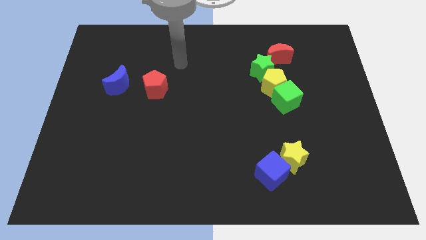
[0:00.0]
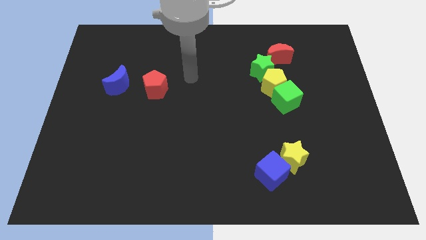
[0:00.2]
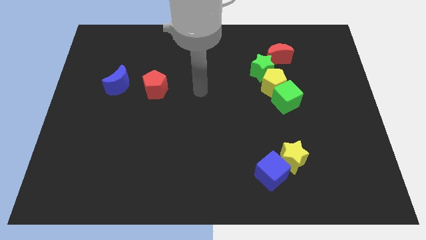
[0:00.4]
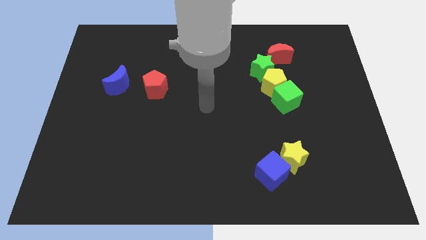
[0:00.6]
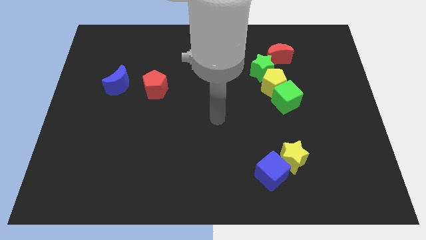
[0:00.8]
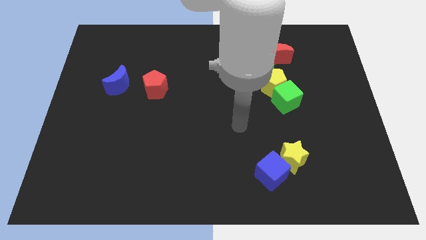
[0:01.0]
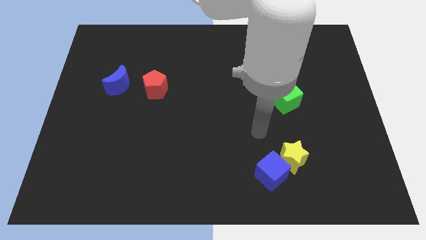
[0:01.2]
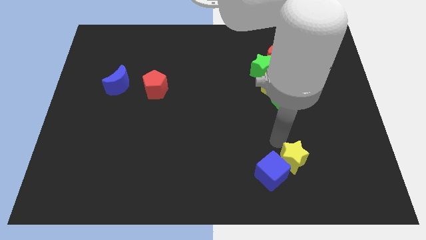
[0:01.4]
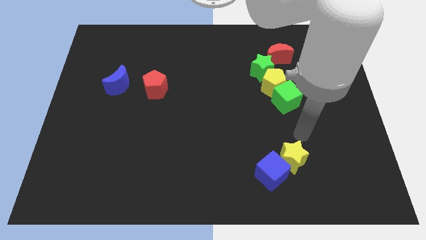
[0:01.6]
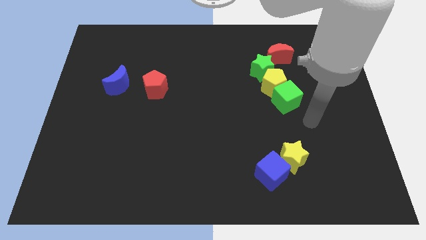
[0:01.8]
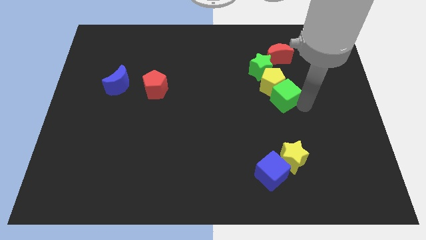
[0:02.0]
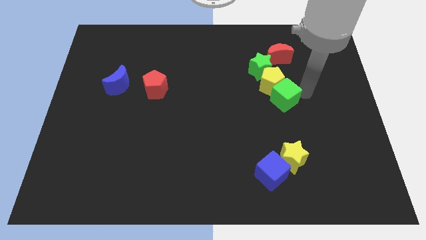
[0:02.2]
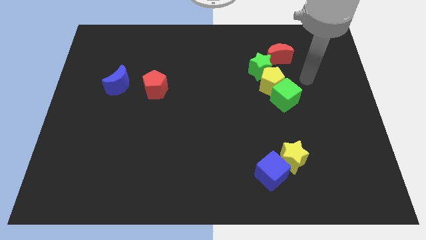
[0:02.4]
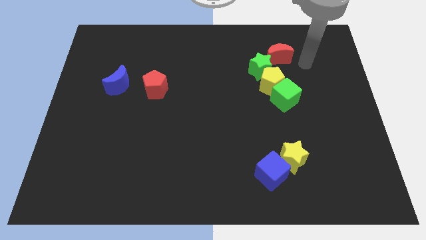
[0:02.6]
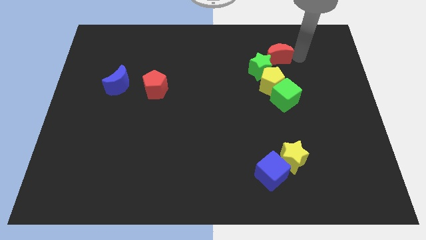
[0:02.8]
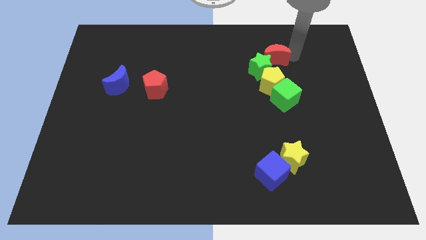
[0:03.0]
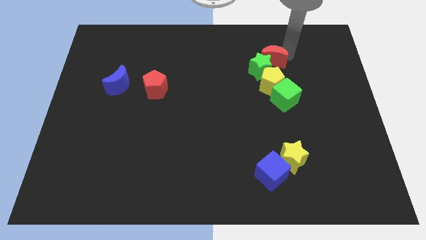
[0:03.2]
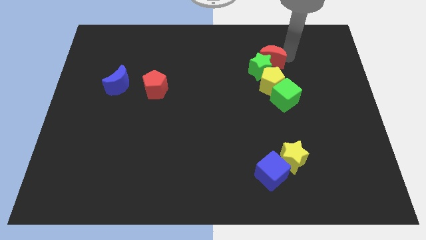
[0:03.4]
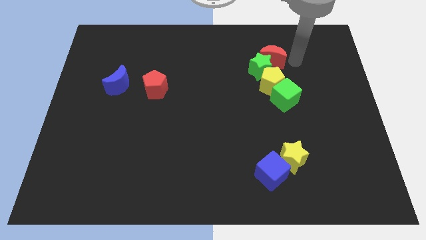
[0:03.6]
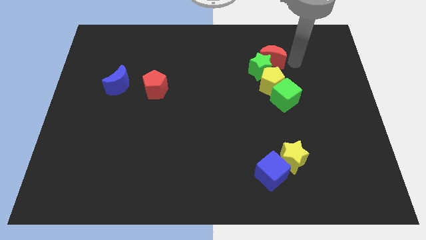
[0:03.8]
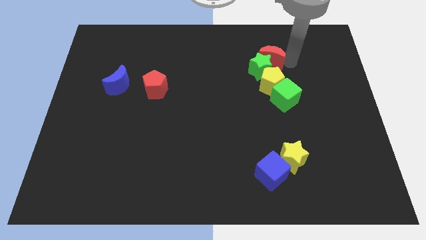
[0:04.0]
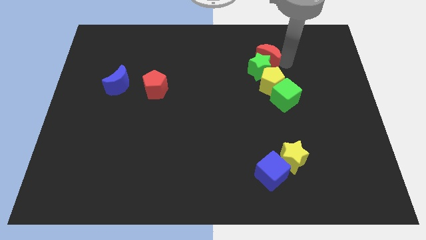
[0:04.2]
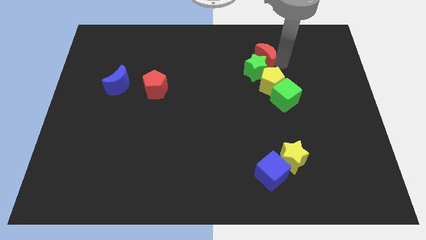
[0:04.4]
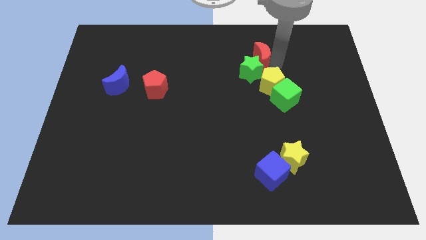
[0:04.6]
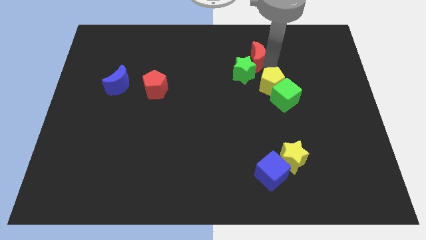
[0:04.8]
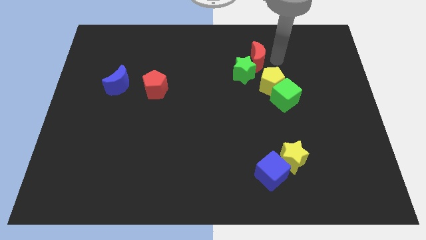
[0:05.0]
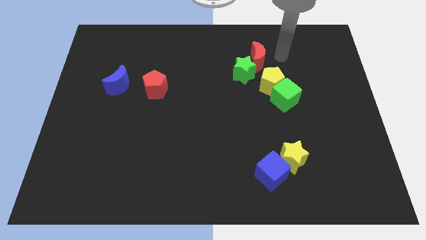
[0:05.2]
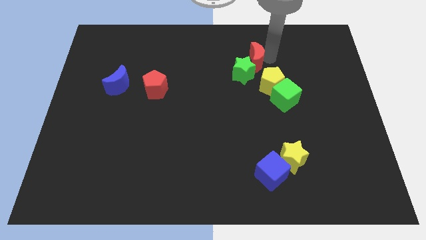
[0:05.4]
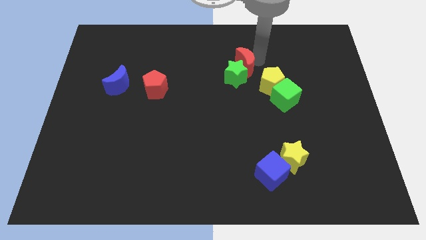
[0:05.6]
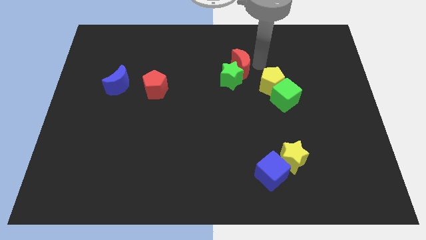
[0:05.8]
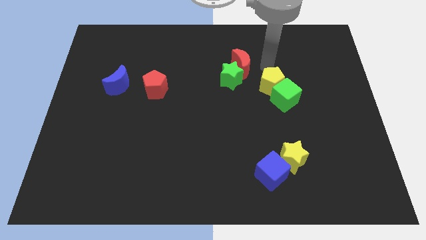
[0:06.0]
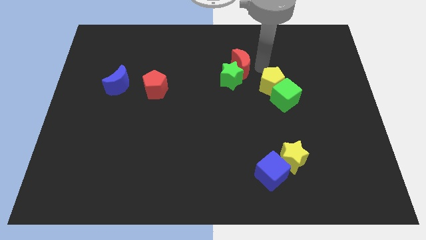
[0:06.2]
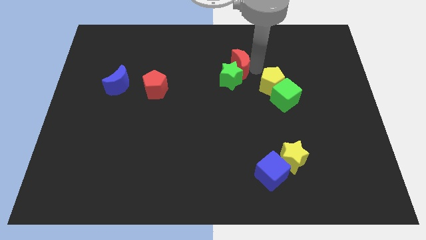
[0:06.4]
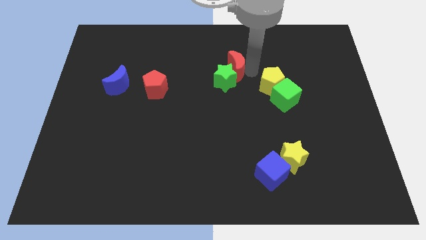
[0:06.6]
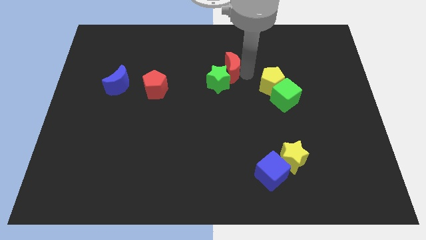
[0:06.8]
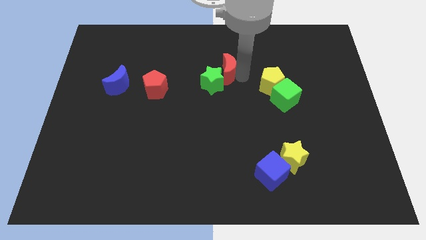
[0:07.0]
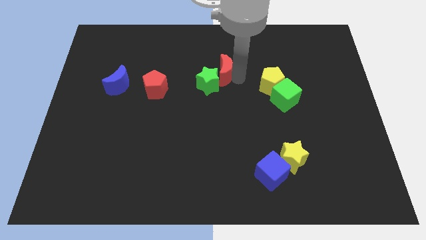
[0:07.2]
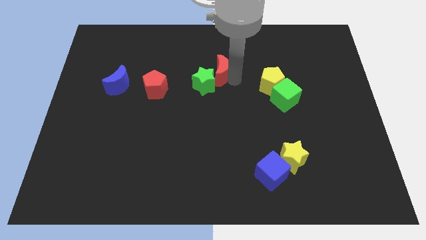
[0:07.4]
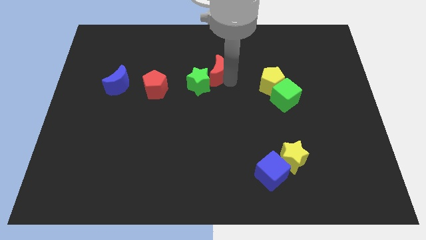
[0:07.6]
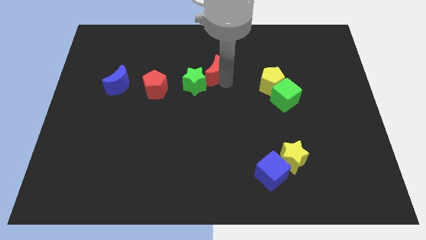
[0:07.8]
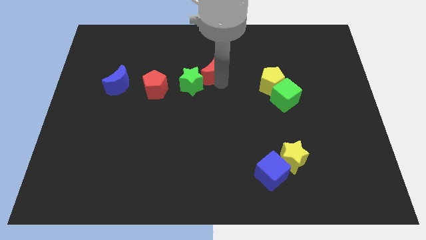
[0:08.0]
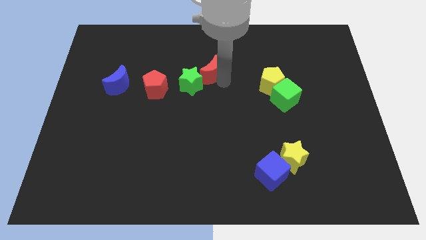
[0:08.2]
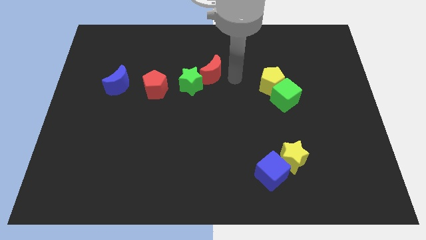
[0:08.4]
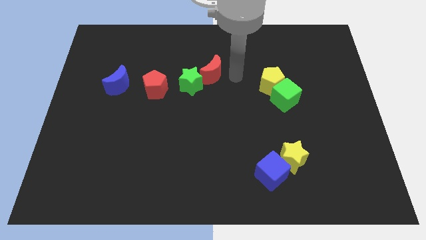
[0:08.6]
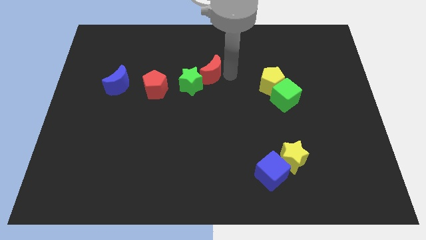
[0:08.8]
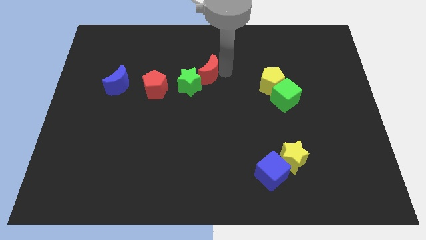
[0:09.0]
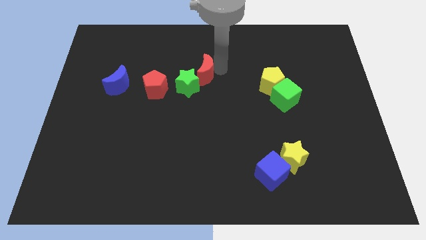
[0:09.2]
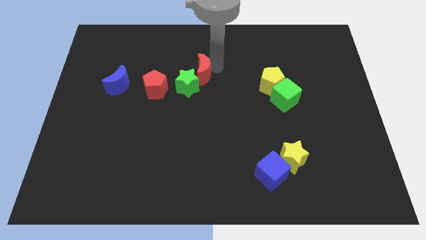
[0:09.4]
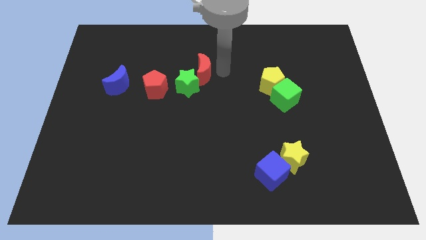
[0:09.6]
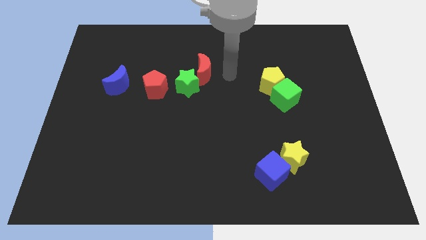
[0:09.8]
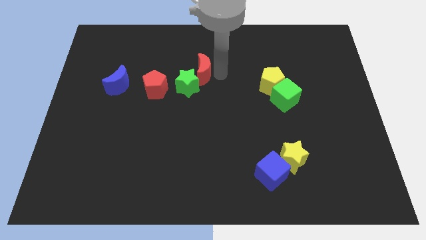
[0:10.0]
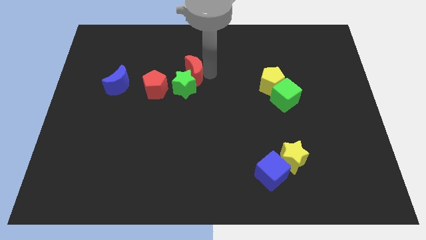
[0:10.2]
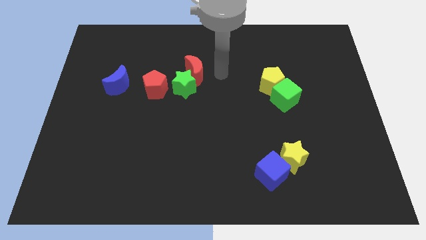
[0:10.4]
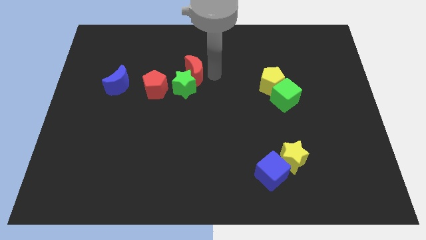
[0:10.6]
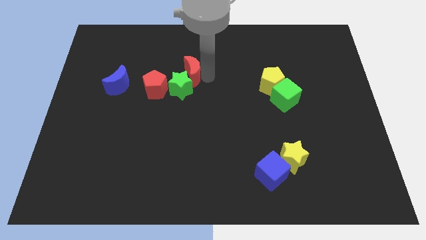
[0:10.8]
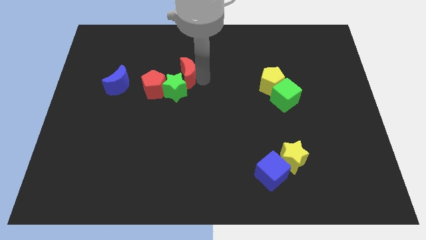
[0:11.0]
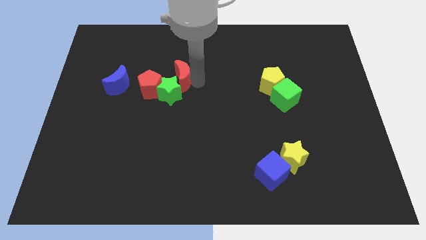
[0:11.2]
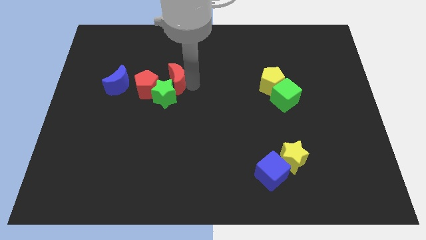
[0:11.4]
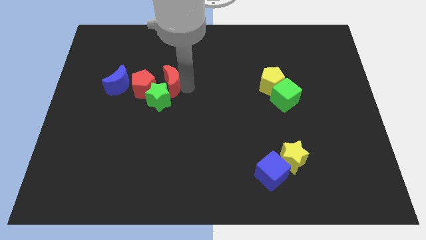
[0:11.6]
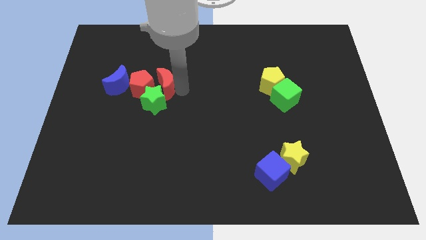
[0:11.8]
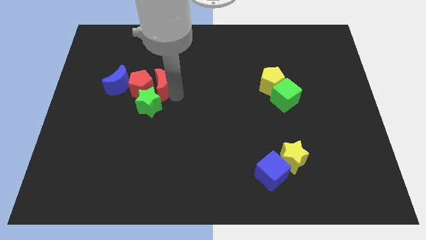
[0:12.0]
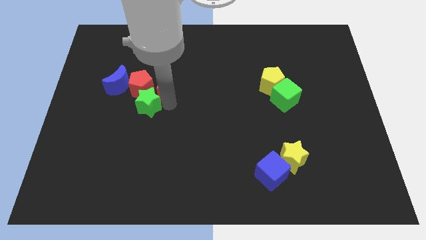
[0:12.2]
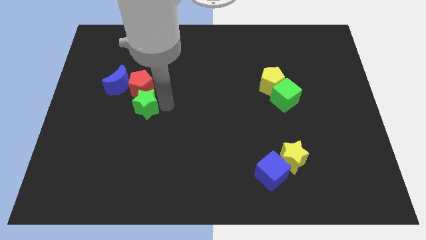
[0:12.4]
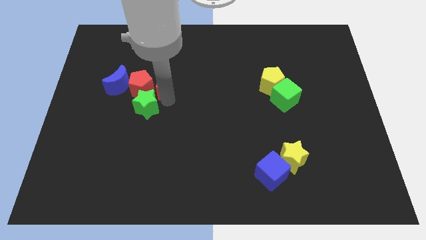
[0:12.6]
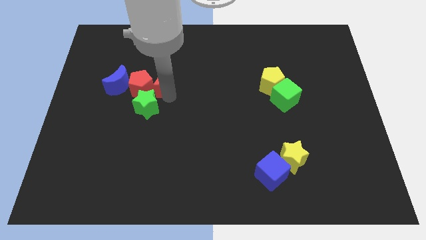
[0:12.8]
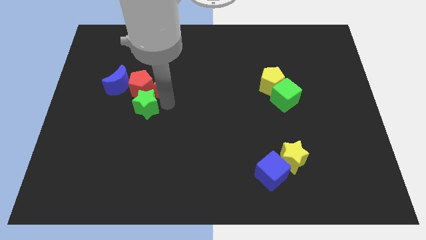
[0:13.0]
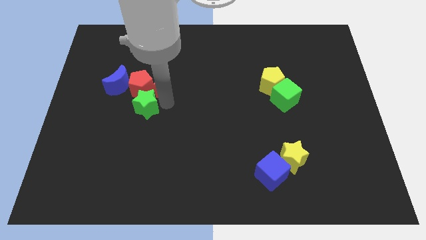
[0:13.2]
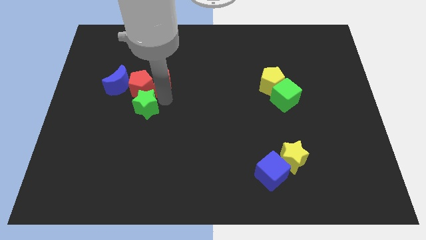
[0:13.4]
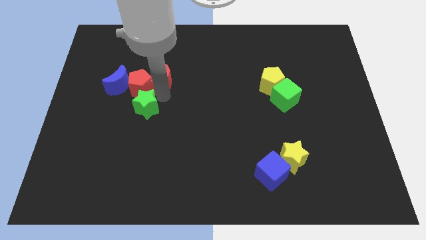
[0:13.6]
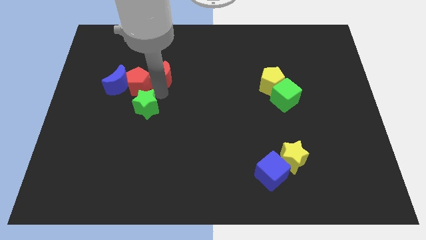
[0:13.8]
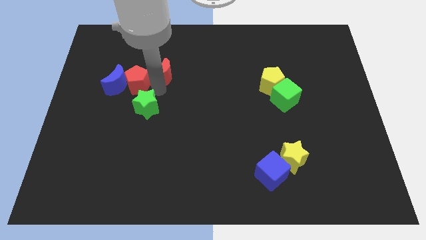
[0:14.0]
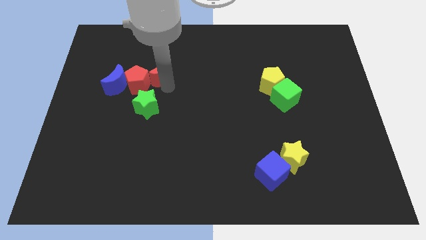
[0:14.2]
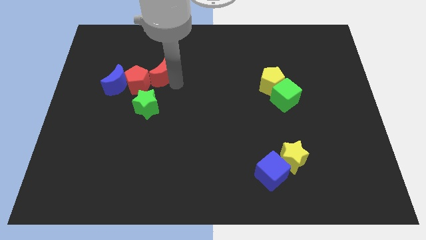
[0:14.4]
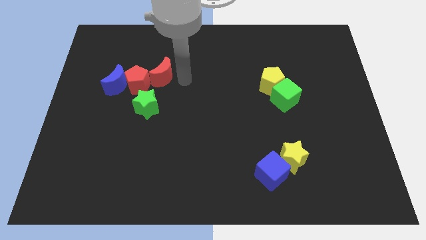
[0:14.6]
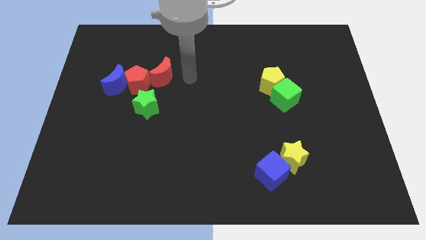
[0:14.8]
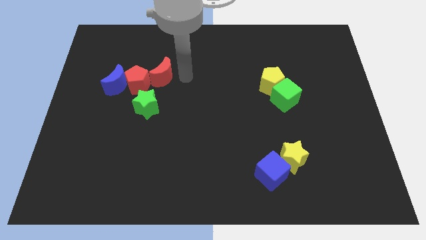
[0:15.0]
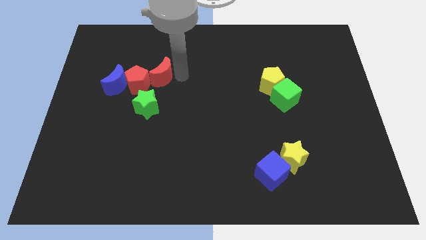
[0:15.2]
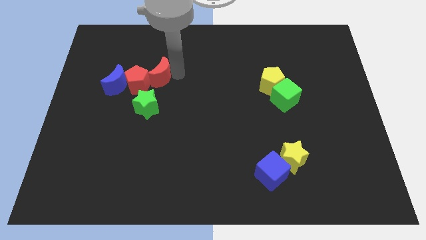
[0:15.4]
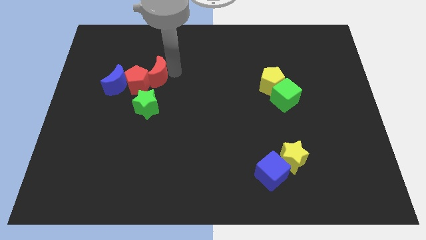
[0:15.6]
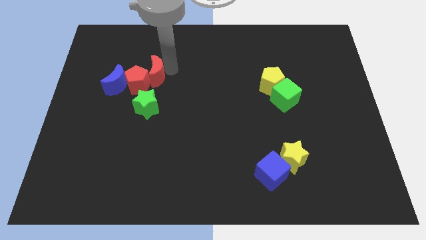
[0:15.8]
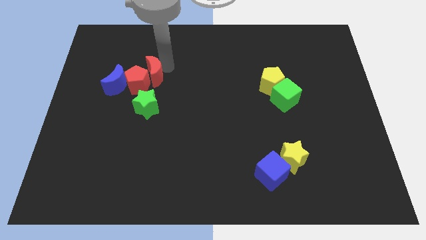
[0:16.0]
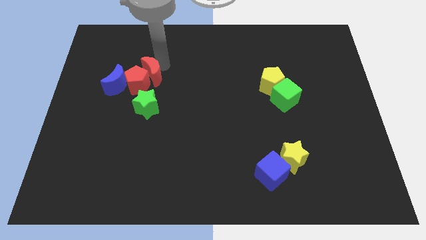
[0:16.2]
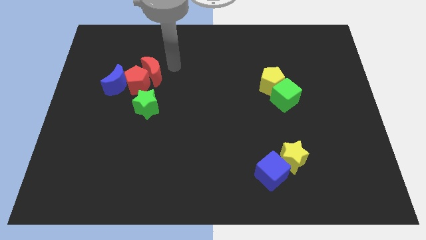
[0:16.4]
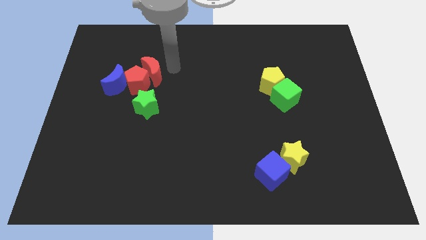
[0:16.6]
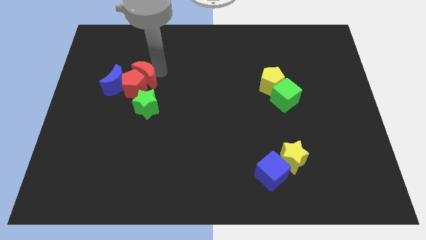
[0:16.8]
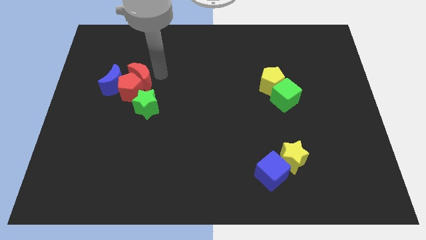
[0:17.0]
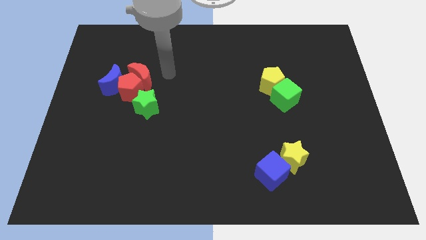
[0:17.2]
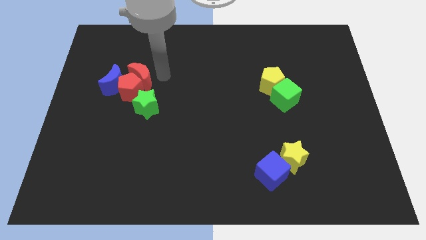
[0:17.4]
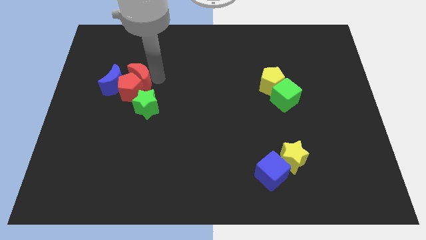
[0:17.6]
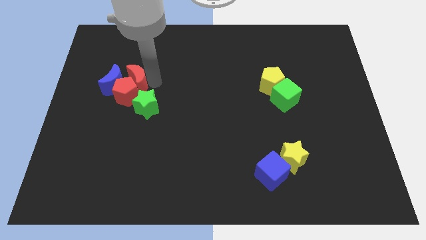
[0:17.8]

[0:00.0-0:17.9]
push the red moon close to the blue moon
